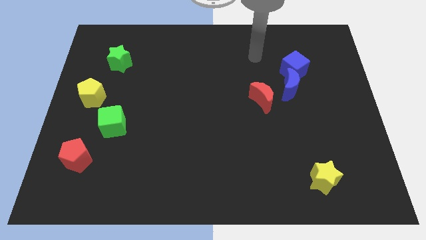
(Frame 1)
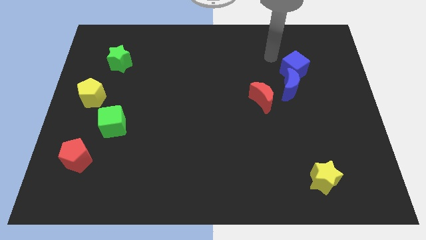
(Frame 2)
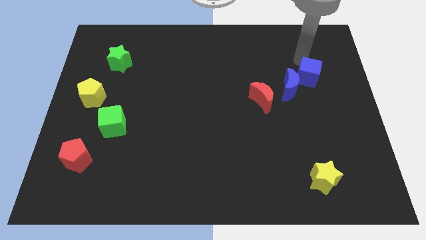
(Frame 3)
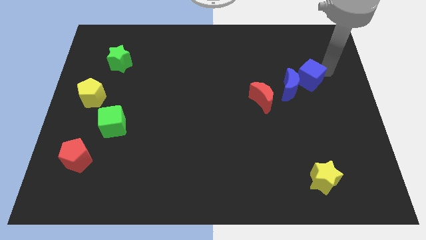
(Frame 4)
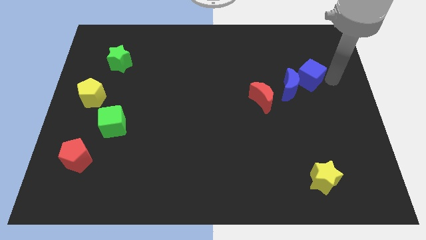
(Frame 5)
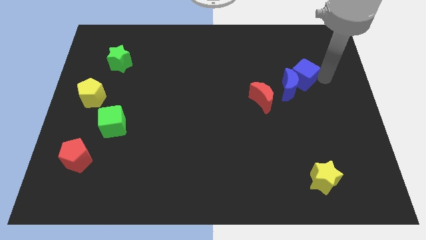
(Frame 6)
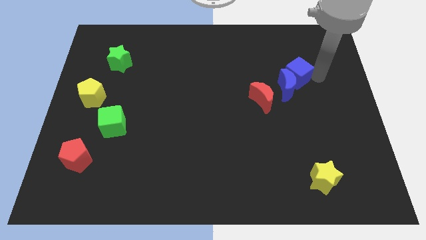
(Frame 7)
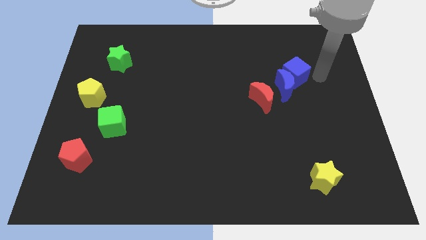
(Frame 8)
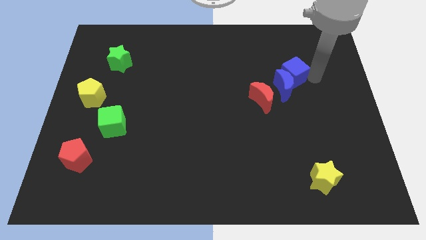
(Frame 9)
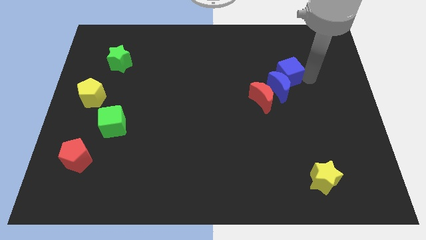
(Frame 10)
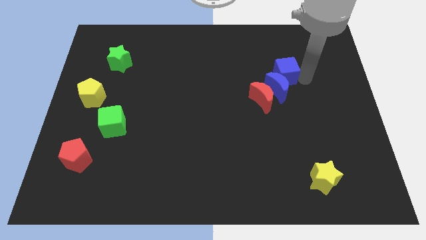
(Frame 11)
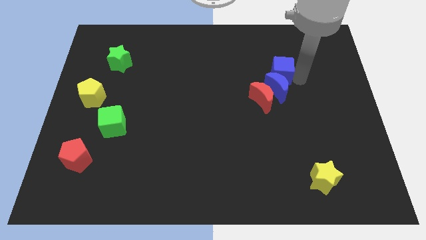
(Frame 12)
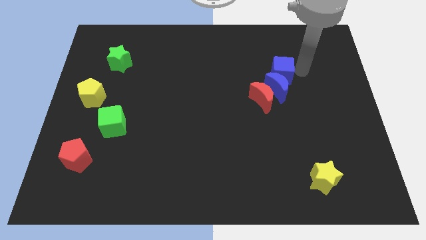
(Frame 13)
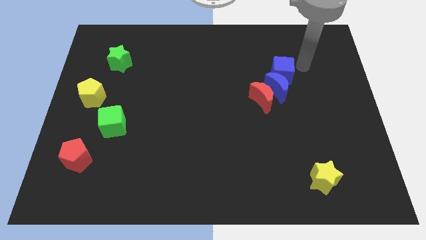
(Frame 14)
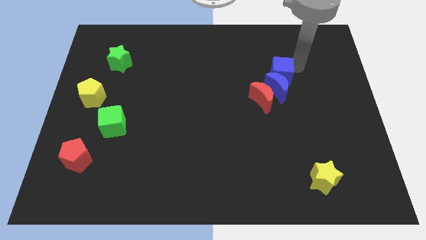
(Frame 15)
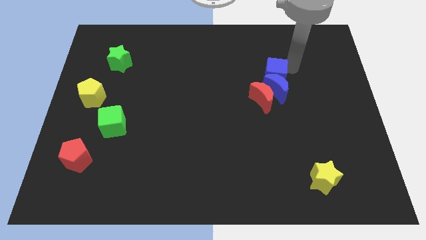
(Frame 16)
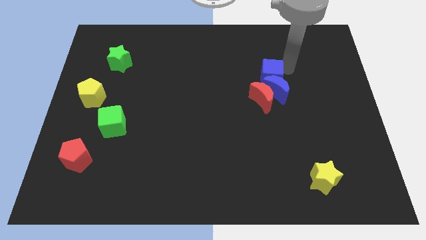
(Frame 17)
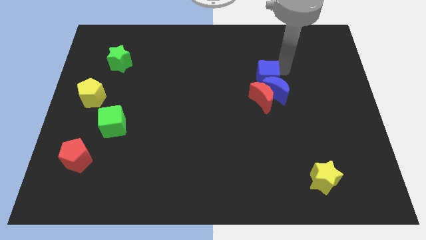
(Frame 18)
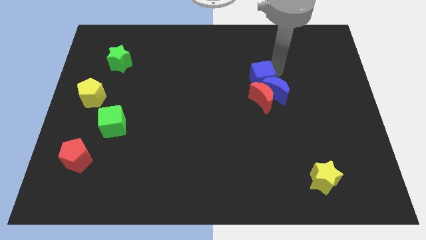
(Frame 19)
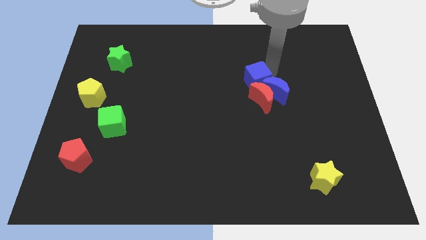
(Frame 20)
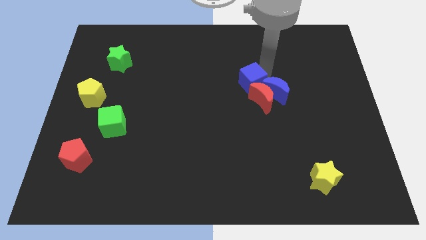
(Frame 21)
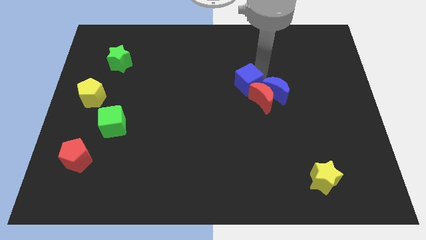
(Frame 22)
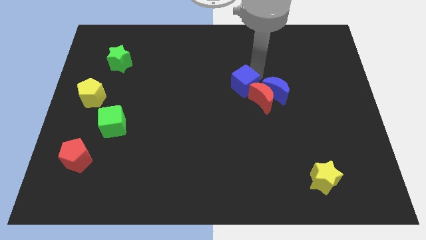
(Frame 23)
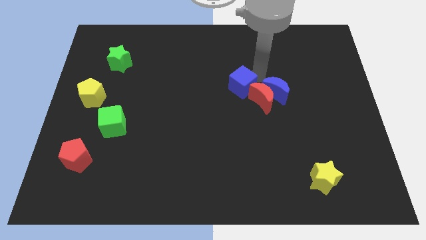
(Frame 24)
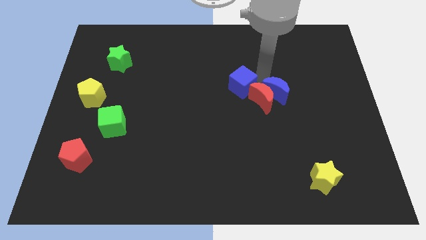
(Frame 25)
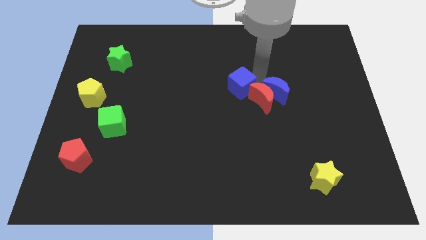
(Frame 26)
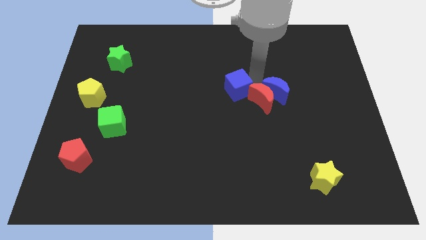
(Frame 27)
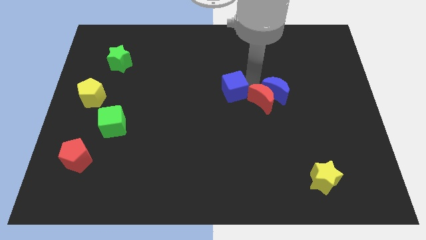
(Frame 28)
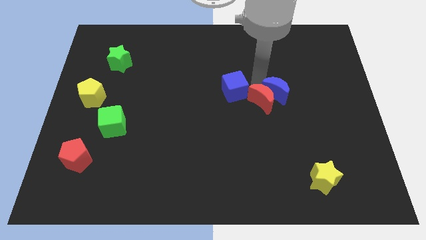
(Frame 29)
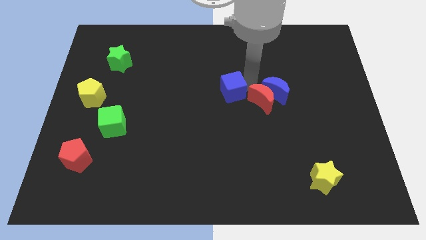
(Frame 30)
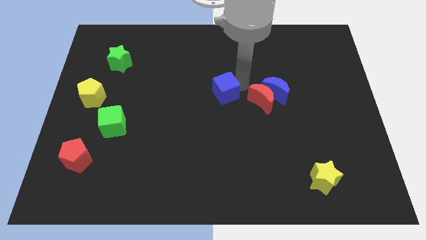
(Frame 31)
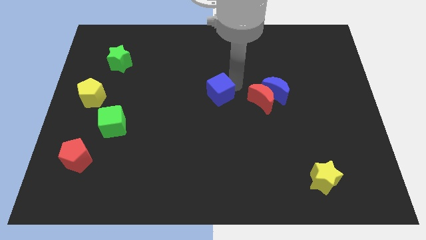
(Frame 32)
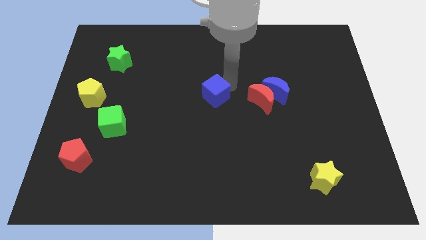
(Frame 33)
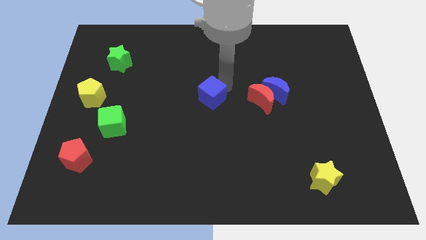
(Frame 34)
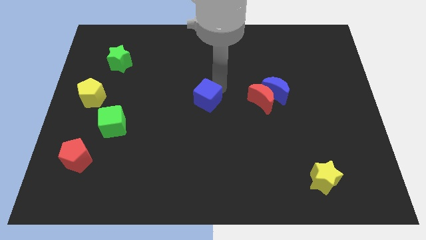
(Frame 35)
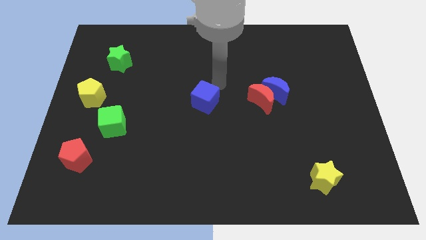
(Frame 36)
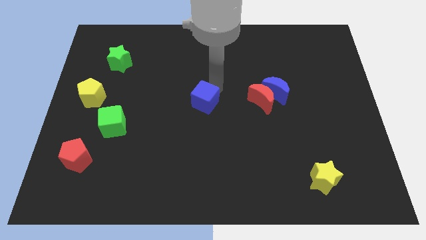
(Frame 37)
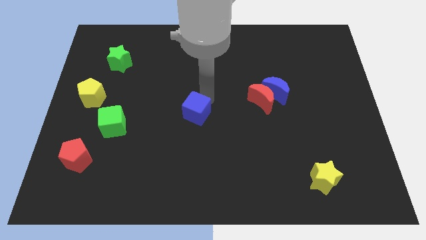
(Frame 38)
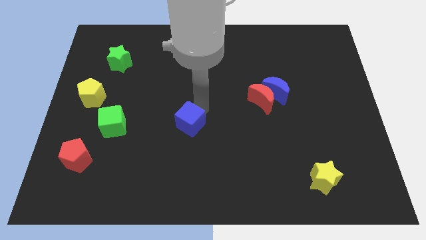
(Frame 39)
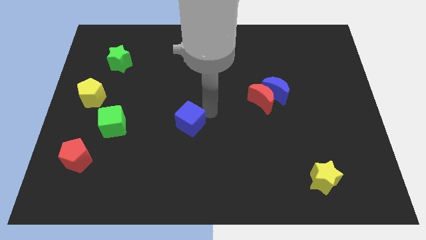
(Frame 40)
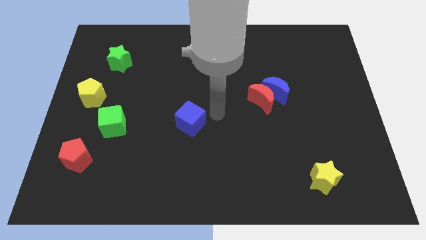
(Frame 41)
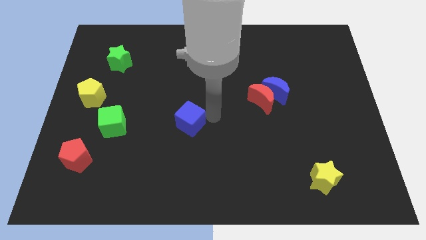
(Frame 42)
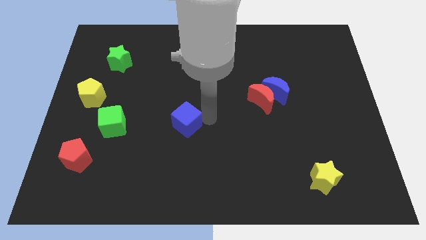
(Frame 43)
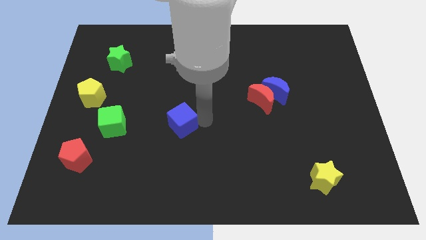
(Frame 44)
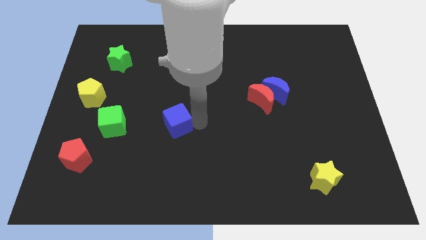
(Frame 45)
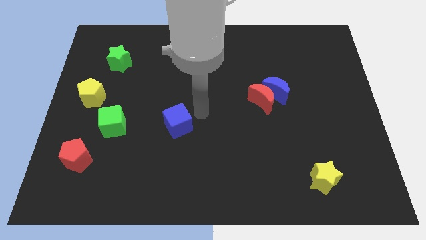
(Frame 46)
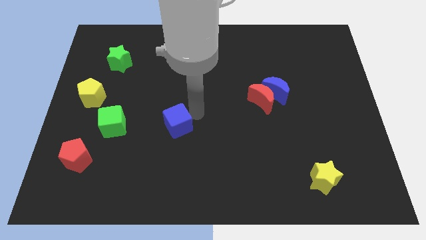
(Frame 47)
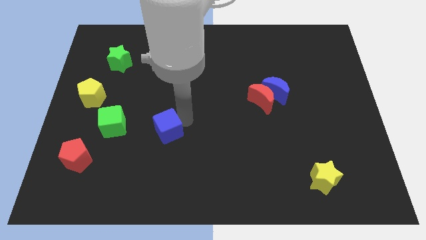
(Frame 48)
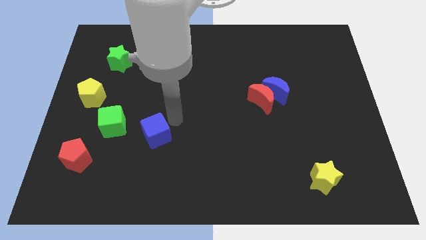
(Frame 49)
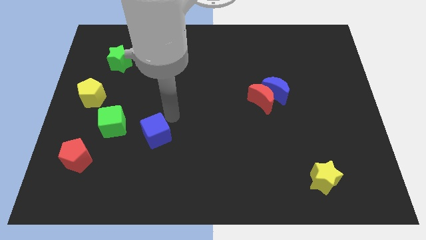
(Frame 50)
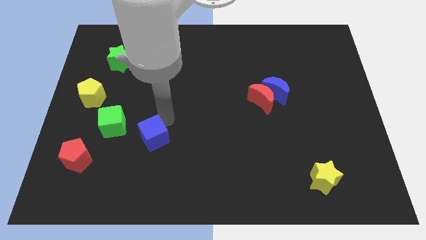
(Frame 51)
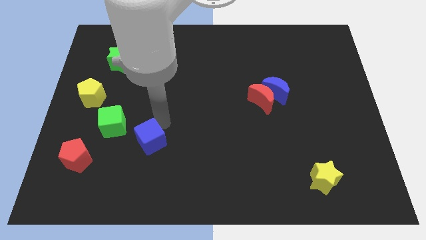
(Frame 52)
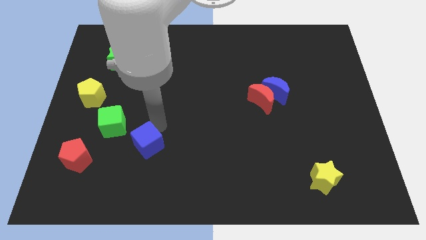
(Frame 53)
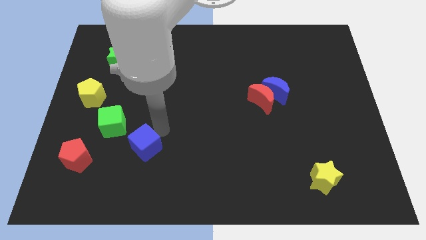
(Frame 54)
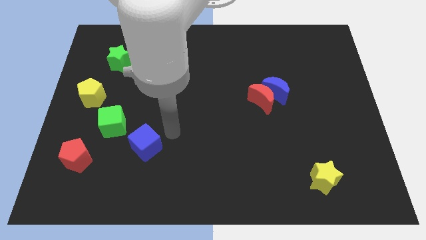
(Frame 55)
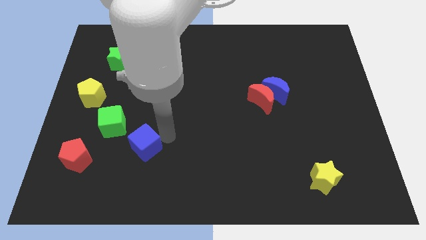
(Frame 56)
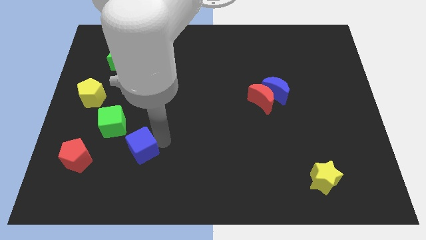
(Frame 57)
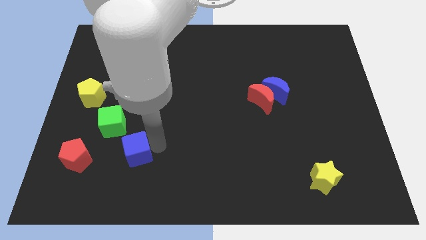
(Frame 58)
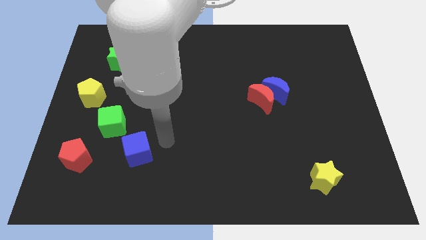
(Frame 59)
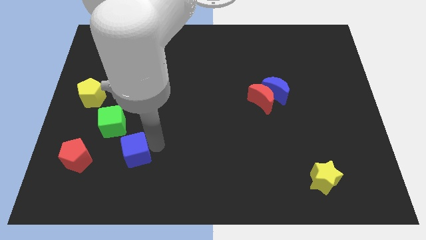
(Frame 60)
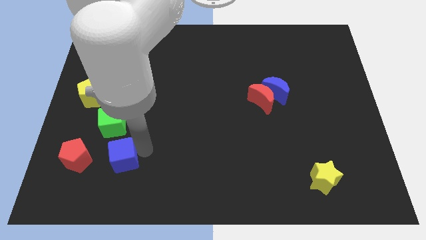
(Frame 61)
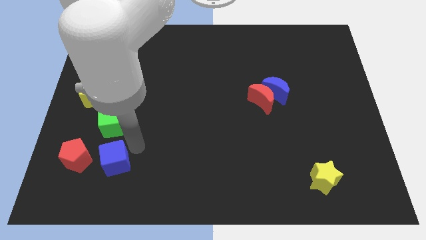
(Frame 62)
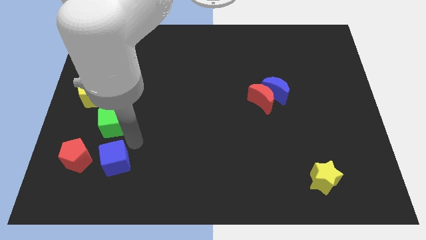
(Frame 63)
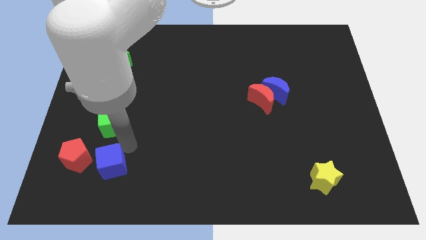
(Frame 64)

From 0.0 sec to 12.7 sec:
put the blue cube diagonally down and to the right of the red pentagon

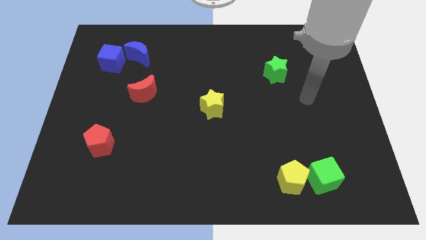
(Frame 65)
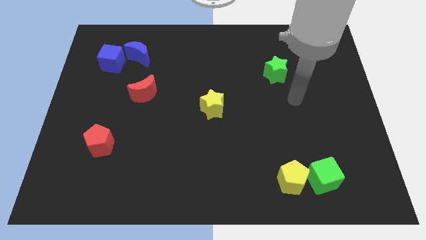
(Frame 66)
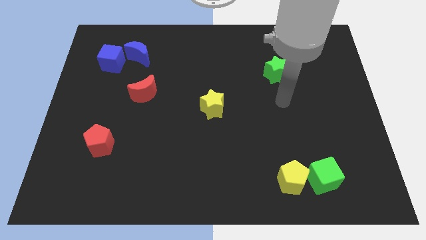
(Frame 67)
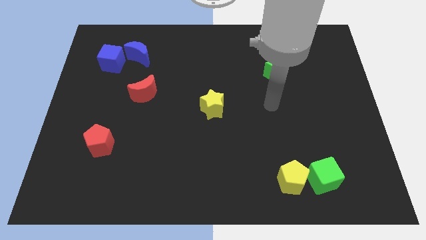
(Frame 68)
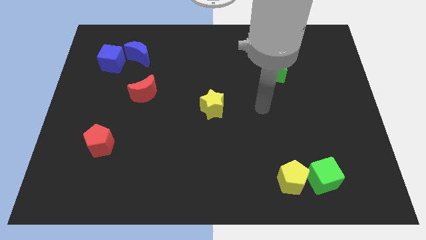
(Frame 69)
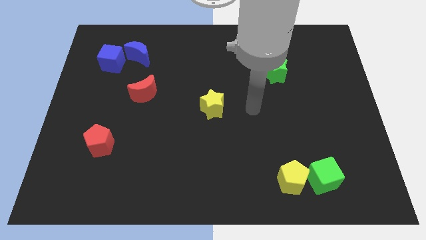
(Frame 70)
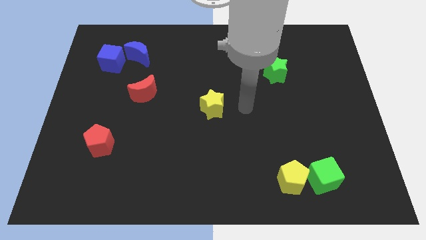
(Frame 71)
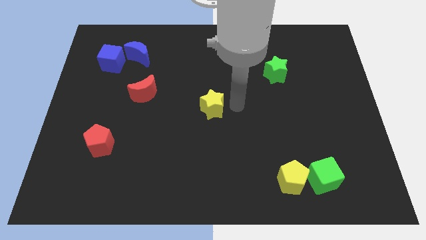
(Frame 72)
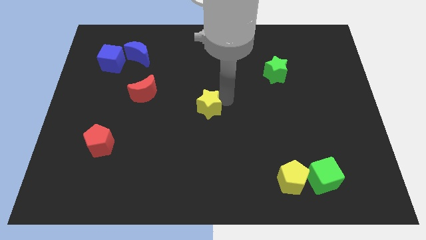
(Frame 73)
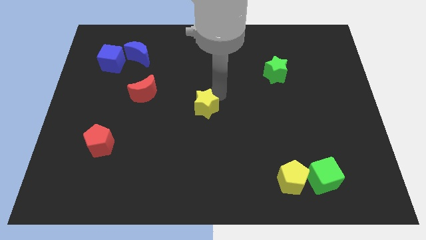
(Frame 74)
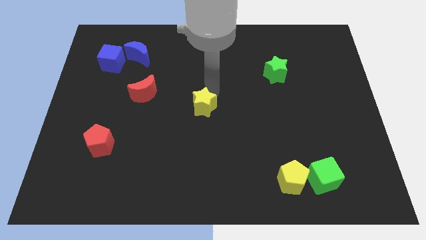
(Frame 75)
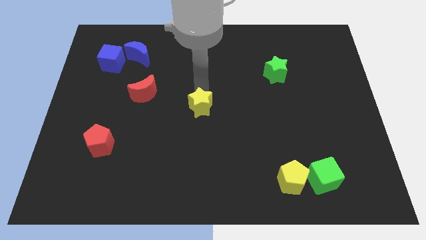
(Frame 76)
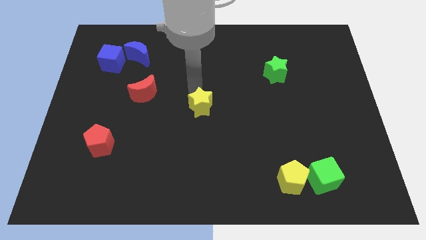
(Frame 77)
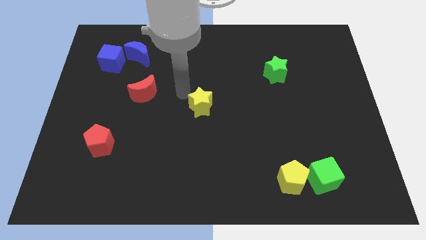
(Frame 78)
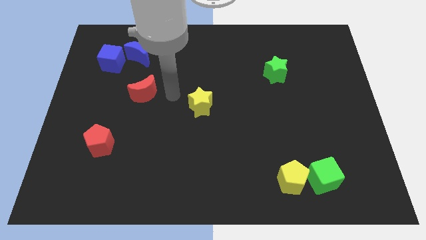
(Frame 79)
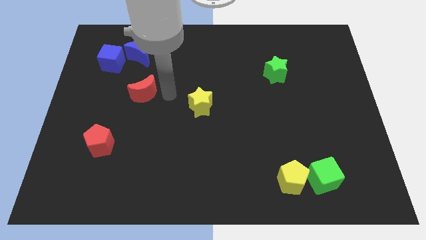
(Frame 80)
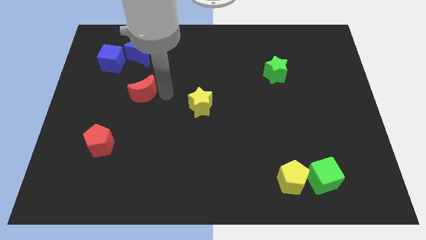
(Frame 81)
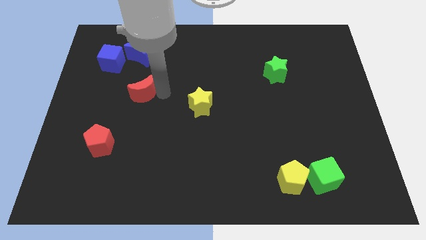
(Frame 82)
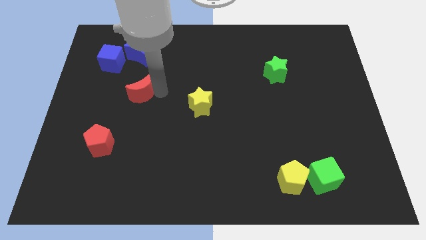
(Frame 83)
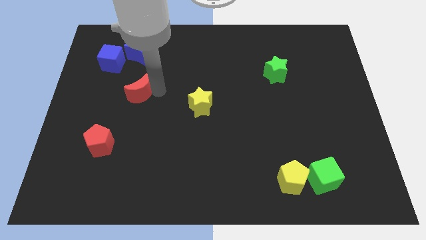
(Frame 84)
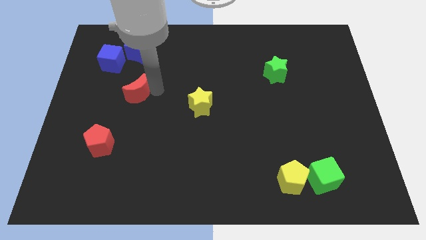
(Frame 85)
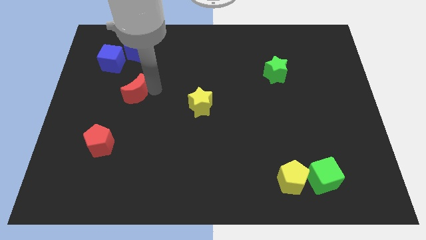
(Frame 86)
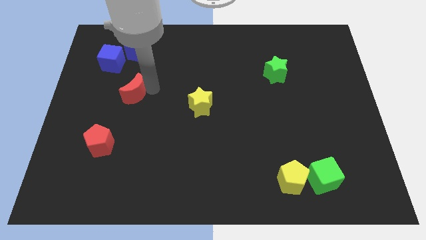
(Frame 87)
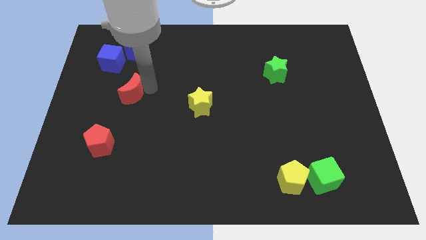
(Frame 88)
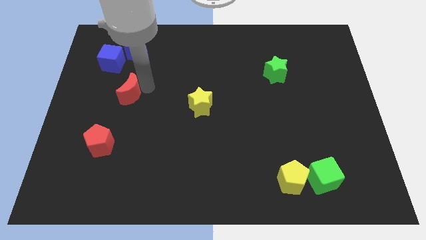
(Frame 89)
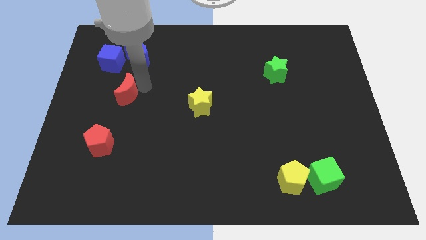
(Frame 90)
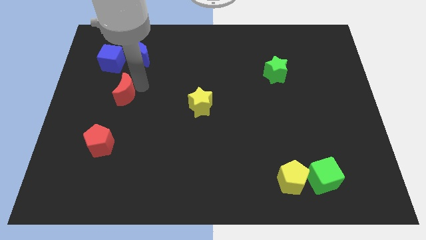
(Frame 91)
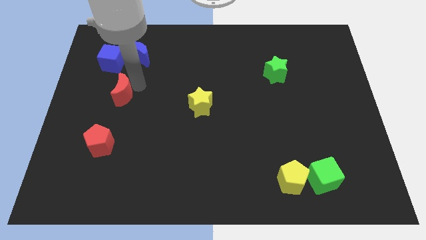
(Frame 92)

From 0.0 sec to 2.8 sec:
push the red moon to the bottom of the blue cube
